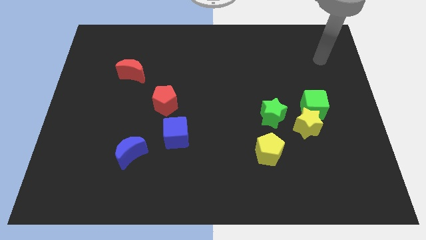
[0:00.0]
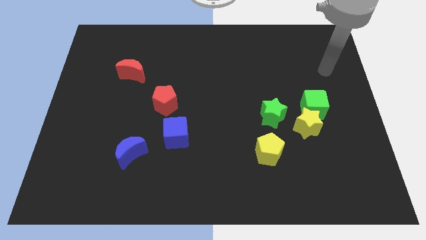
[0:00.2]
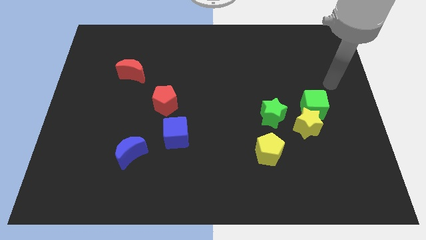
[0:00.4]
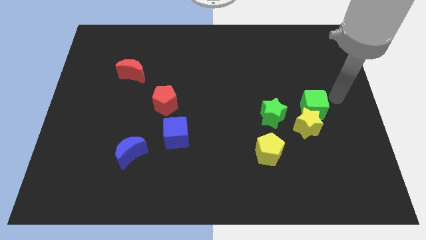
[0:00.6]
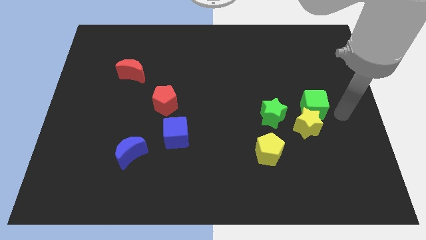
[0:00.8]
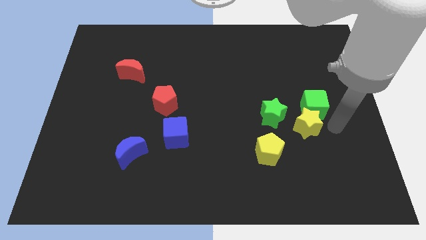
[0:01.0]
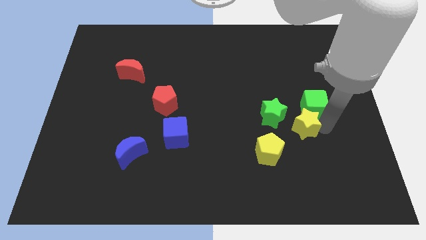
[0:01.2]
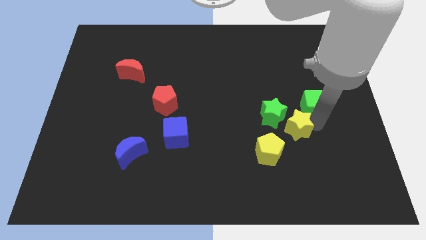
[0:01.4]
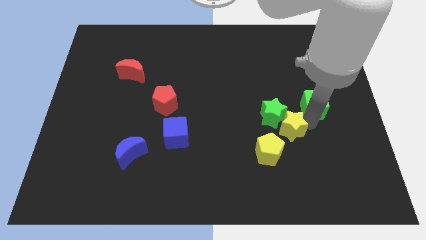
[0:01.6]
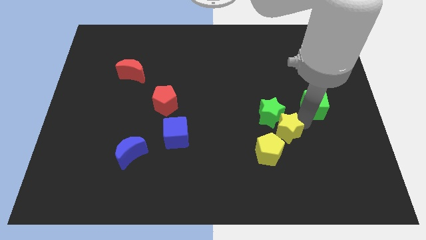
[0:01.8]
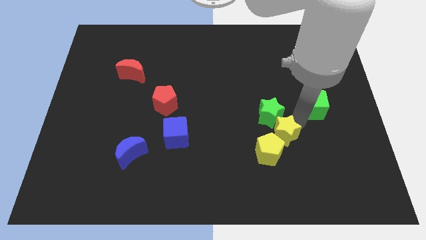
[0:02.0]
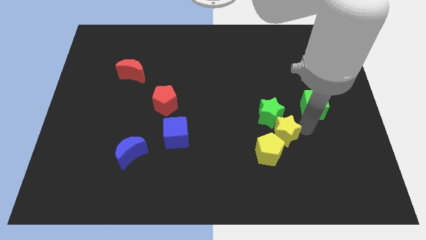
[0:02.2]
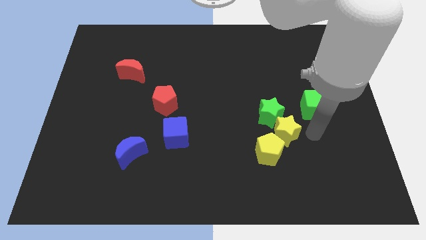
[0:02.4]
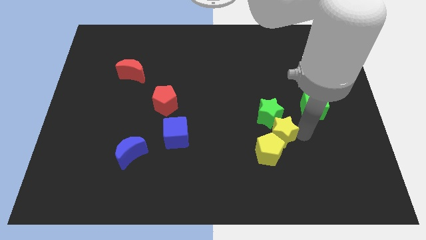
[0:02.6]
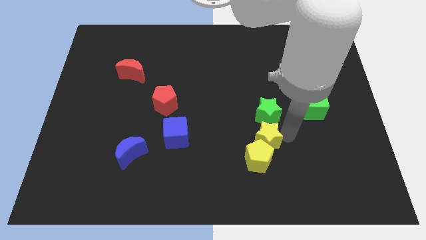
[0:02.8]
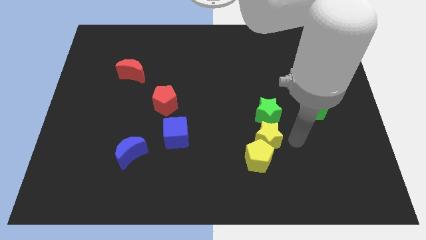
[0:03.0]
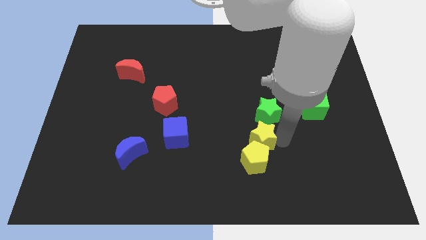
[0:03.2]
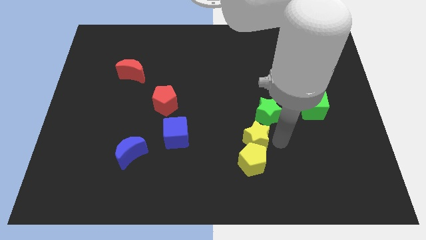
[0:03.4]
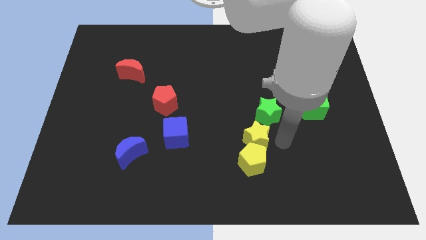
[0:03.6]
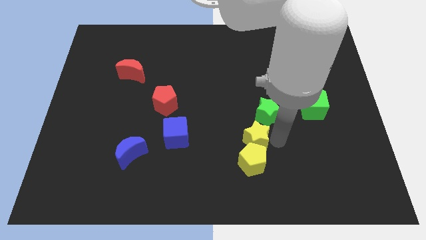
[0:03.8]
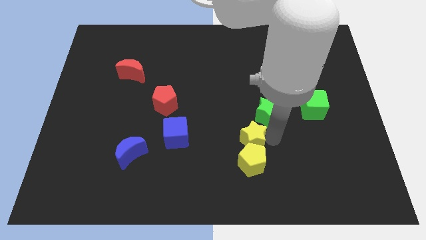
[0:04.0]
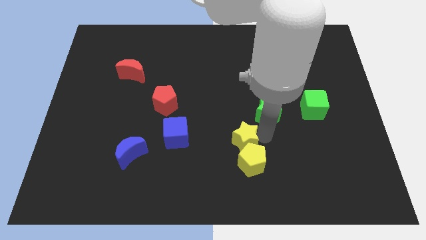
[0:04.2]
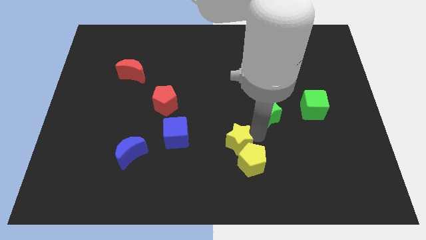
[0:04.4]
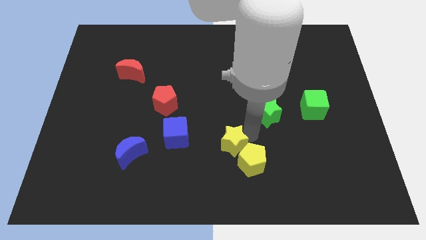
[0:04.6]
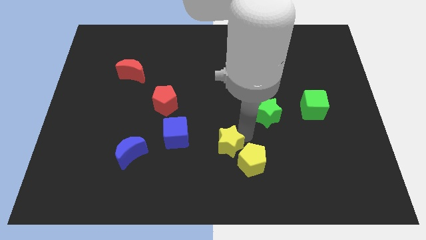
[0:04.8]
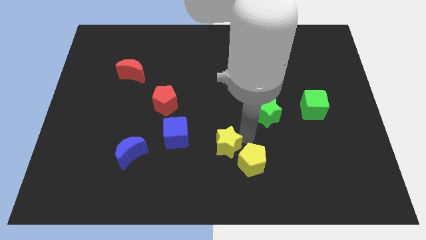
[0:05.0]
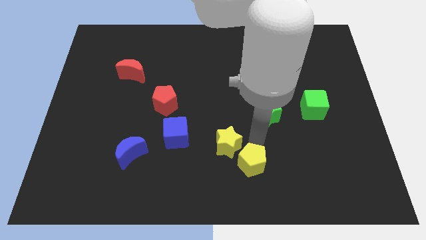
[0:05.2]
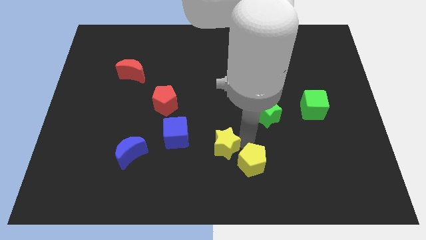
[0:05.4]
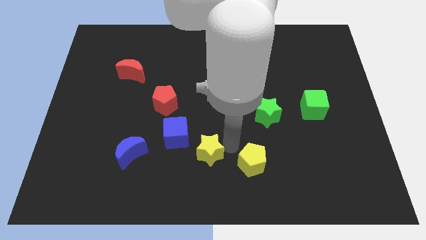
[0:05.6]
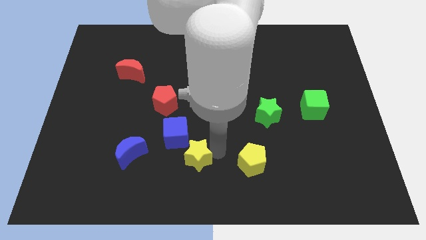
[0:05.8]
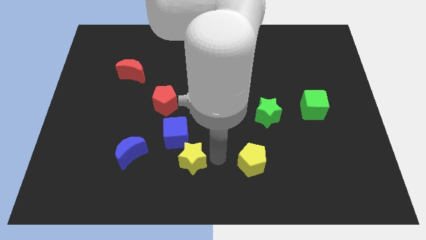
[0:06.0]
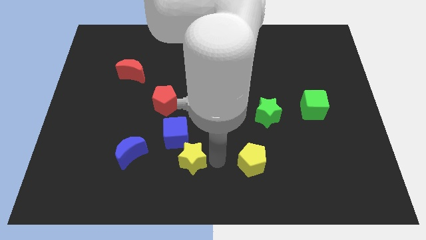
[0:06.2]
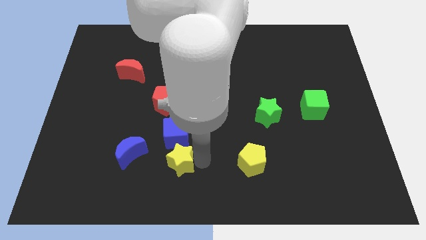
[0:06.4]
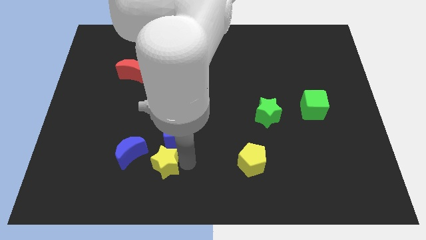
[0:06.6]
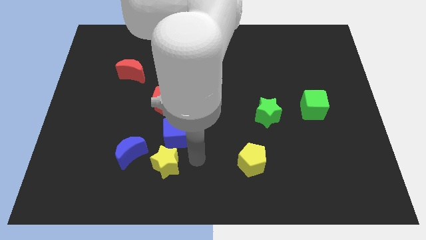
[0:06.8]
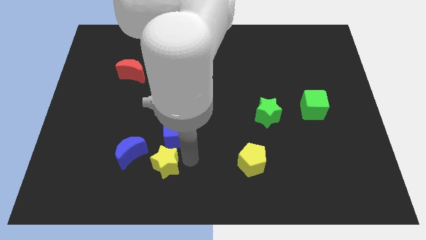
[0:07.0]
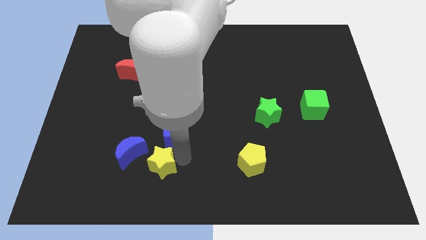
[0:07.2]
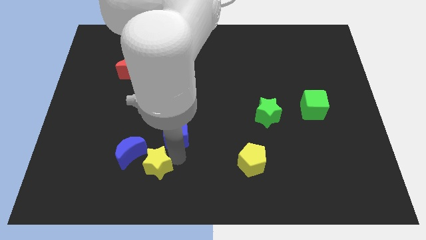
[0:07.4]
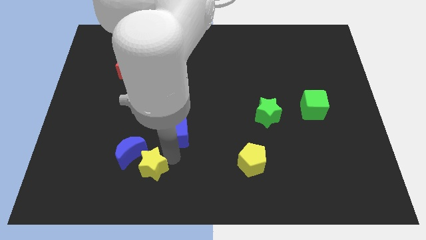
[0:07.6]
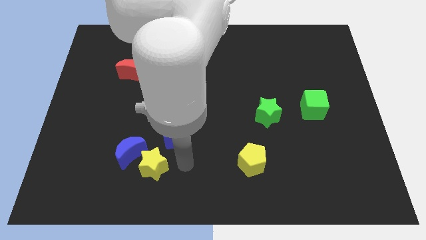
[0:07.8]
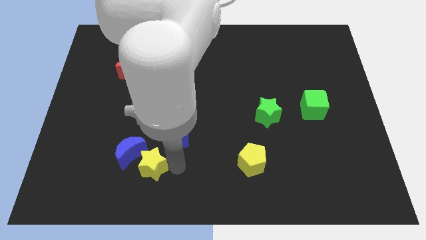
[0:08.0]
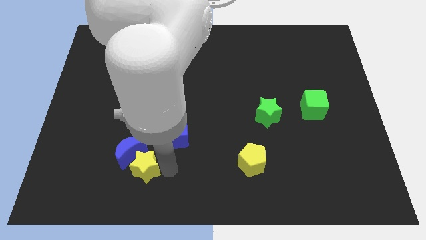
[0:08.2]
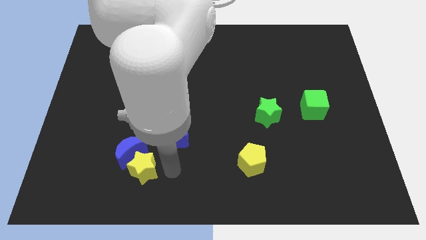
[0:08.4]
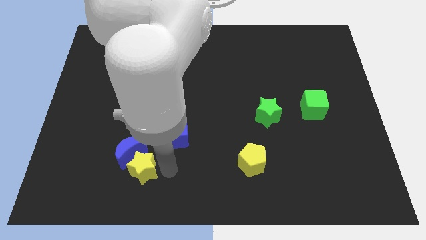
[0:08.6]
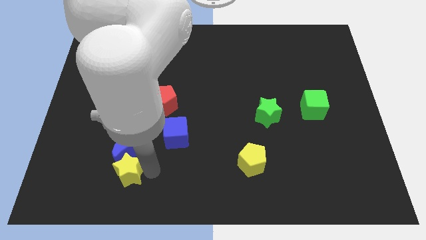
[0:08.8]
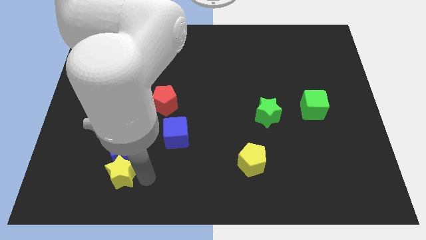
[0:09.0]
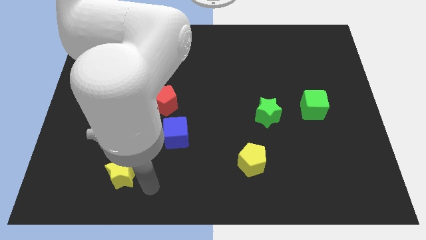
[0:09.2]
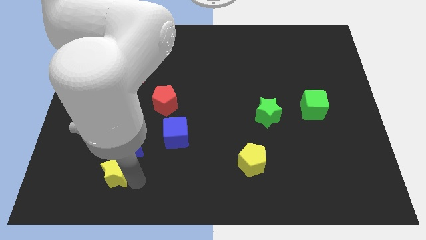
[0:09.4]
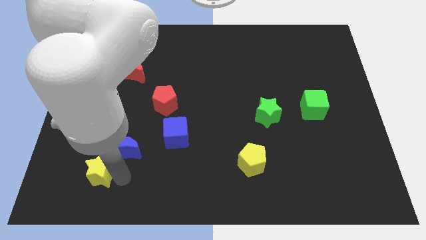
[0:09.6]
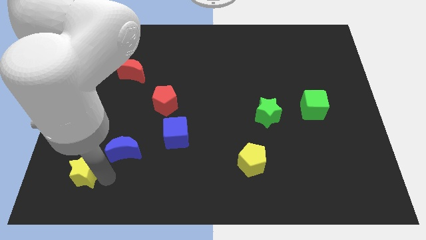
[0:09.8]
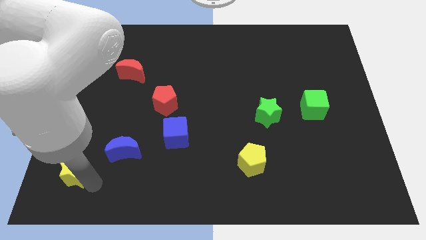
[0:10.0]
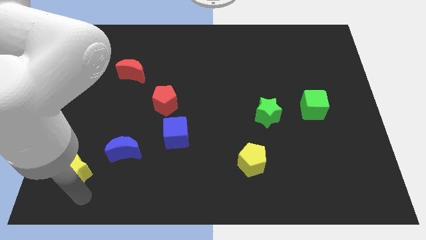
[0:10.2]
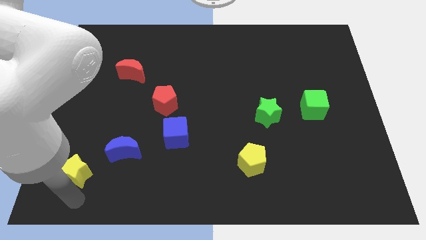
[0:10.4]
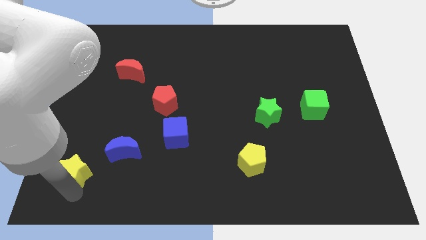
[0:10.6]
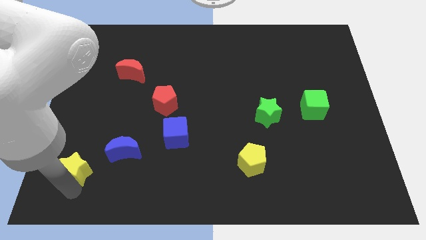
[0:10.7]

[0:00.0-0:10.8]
move the yellow star just left of the blue moon

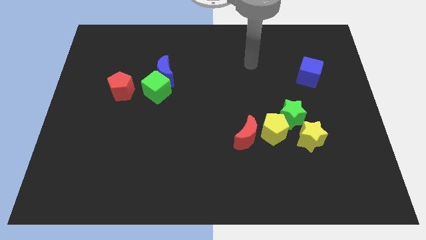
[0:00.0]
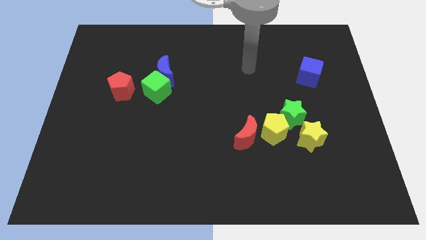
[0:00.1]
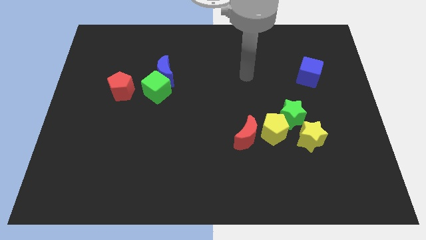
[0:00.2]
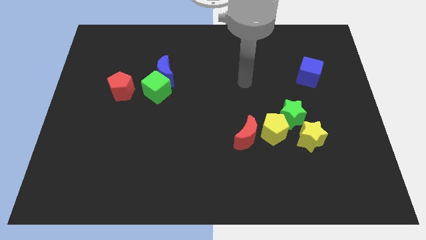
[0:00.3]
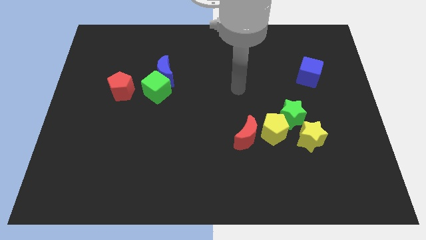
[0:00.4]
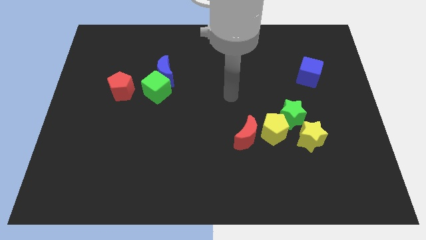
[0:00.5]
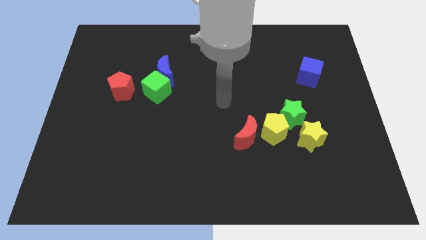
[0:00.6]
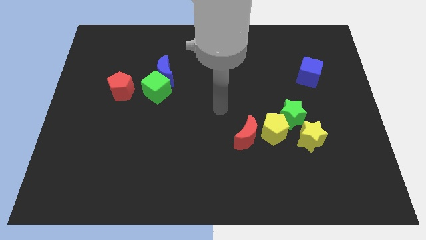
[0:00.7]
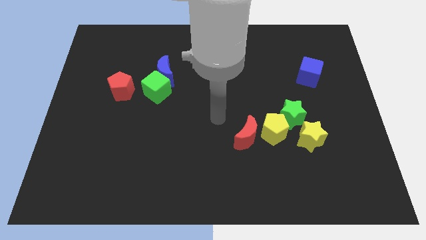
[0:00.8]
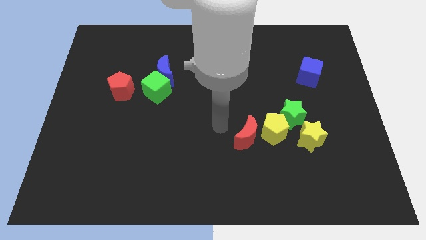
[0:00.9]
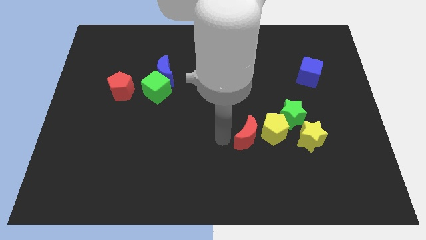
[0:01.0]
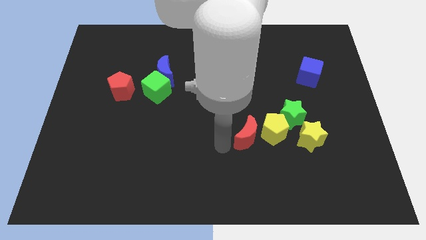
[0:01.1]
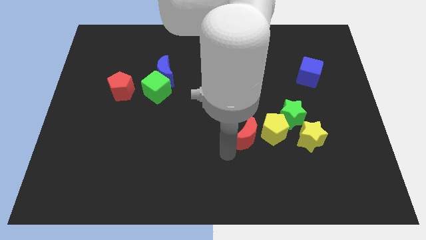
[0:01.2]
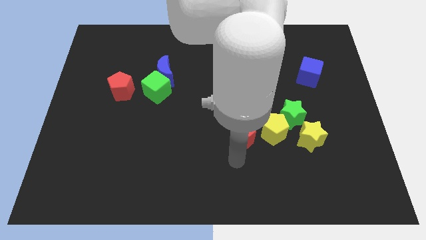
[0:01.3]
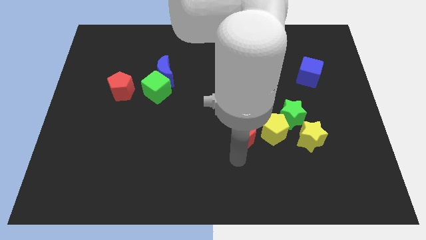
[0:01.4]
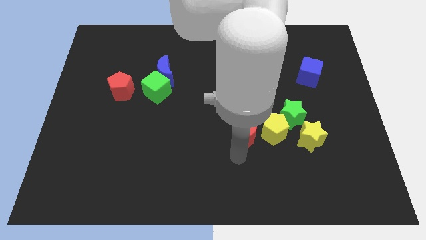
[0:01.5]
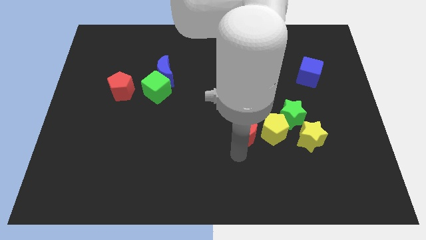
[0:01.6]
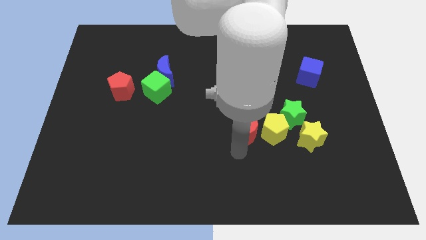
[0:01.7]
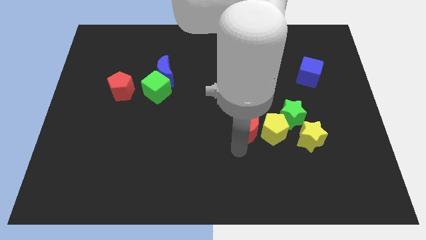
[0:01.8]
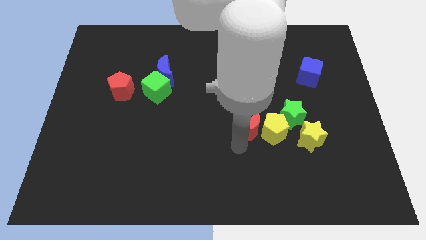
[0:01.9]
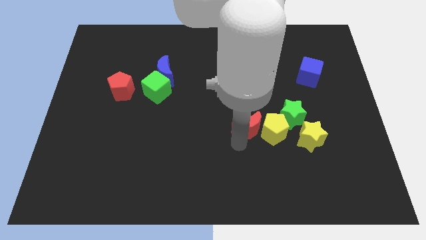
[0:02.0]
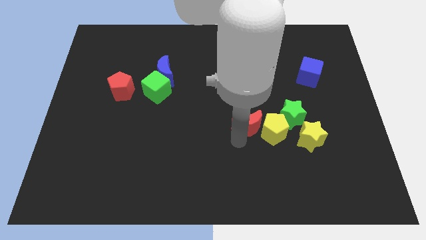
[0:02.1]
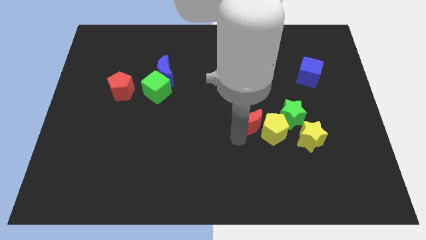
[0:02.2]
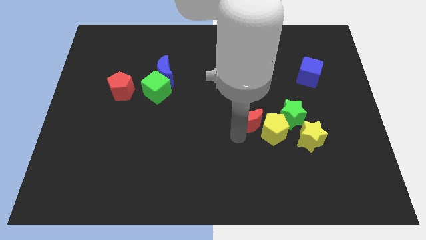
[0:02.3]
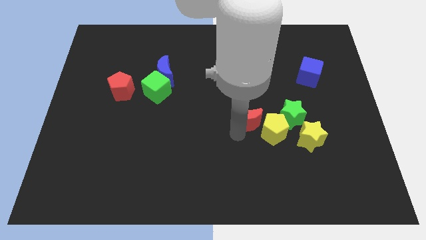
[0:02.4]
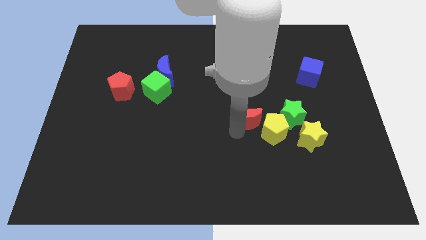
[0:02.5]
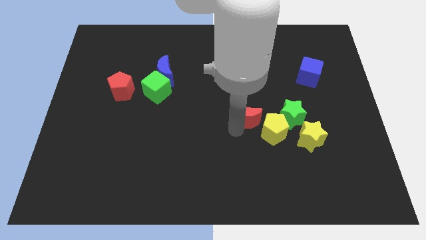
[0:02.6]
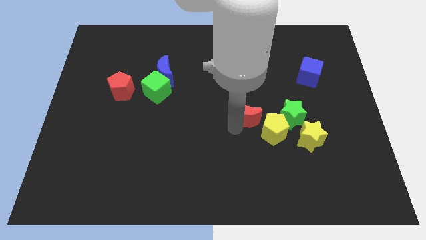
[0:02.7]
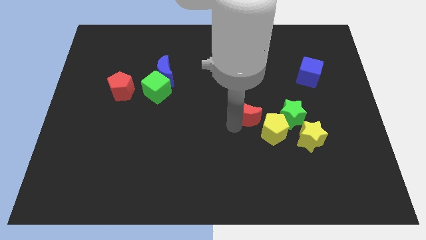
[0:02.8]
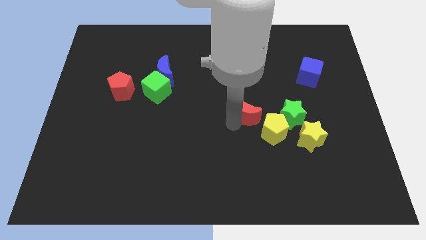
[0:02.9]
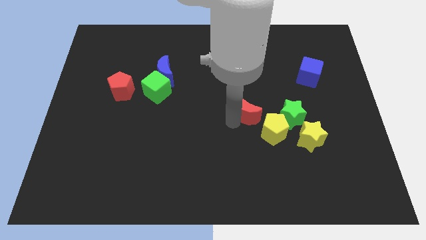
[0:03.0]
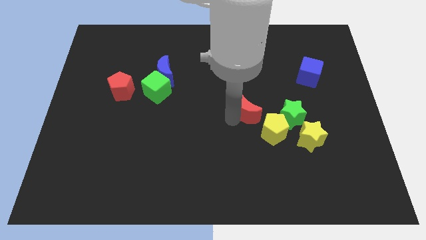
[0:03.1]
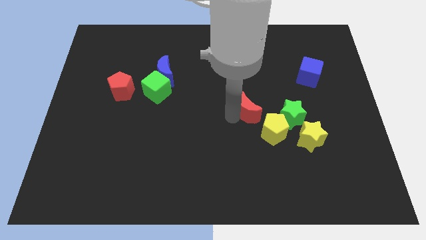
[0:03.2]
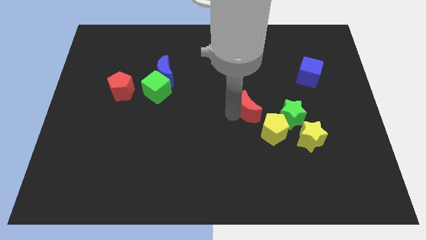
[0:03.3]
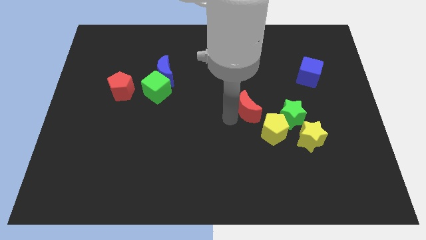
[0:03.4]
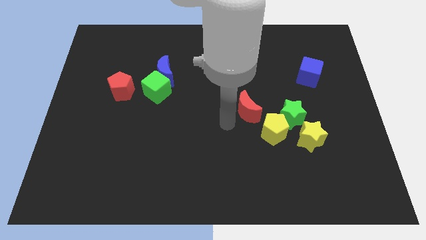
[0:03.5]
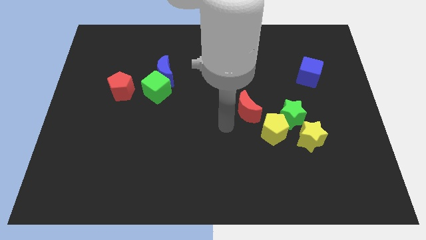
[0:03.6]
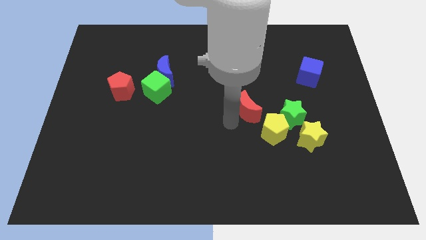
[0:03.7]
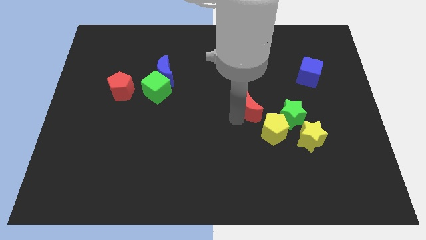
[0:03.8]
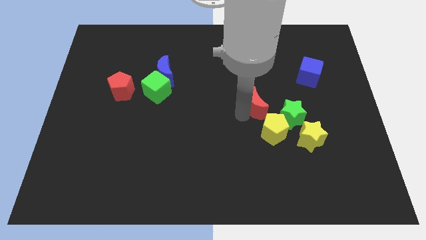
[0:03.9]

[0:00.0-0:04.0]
push the red moon above the yellow pentagon
